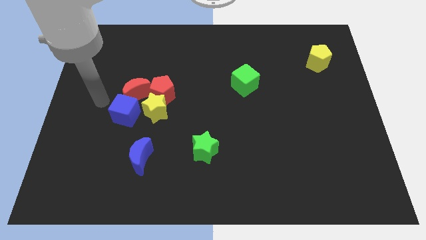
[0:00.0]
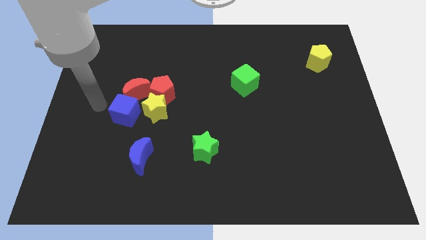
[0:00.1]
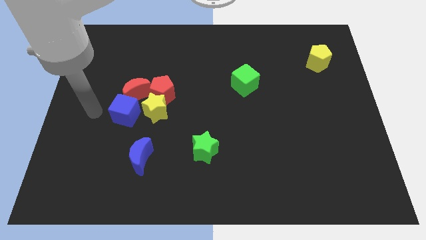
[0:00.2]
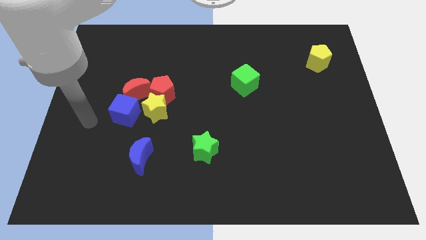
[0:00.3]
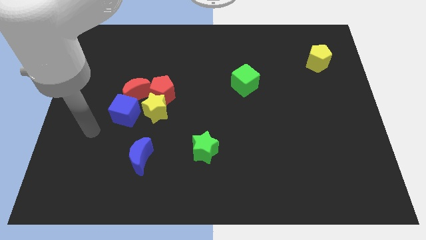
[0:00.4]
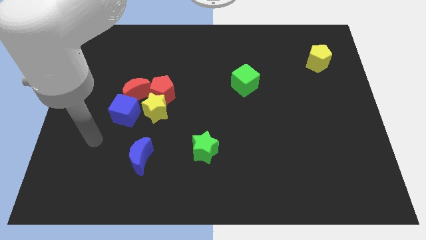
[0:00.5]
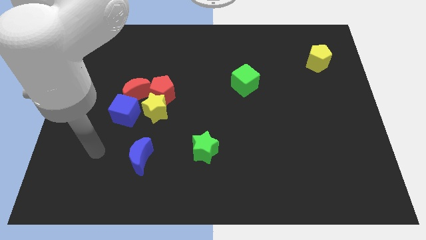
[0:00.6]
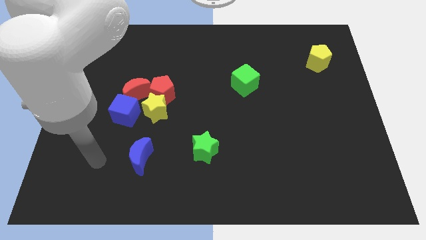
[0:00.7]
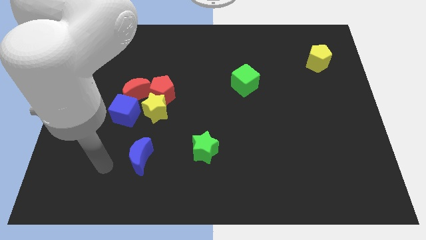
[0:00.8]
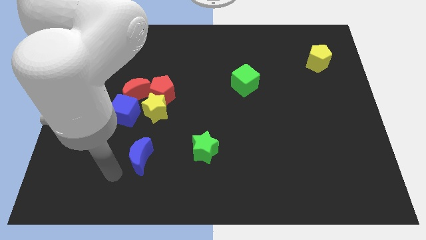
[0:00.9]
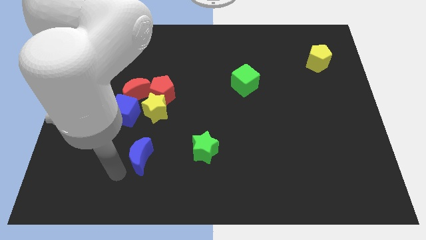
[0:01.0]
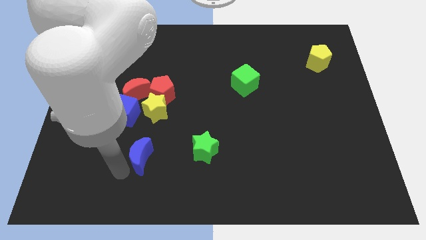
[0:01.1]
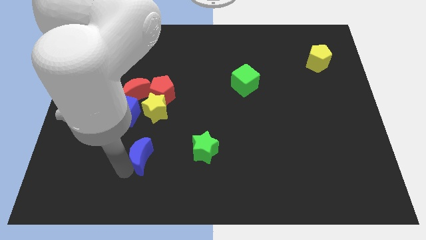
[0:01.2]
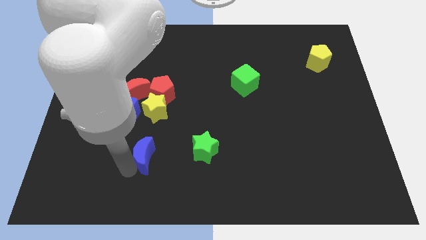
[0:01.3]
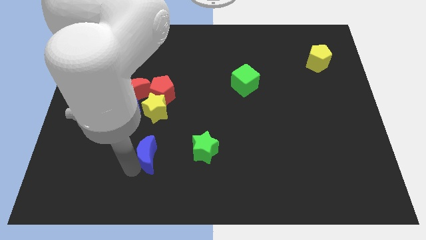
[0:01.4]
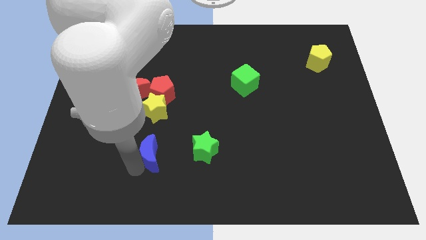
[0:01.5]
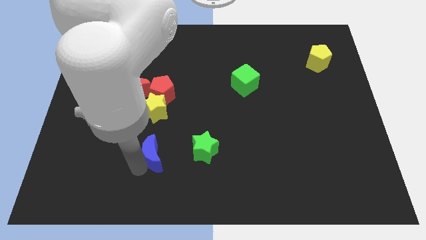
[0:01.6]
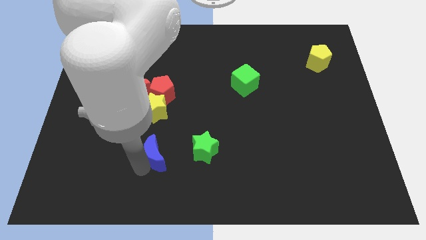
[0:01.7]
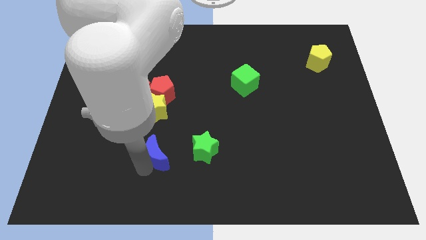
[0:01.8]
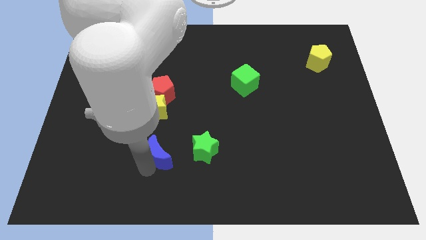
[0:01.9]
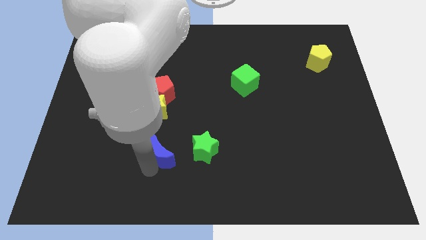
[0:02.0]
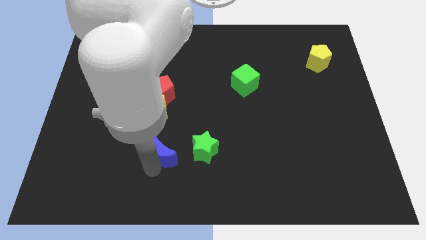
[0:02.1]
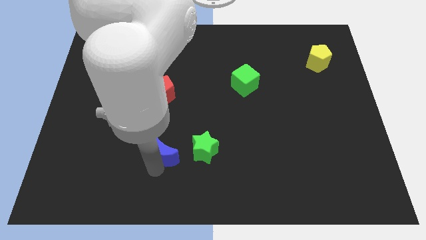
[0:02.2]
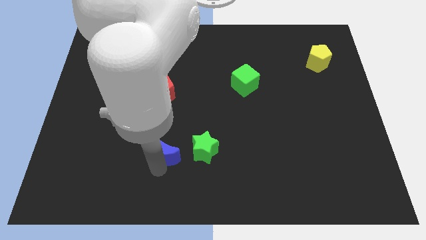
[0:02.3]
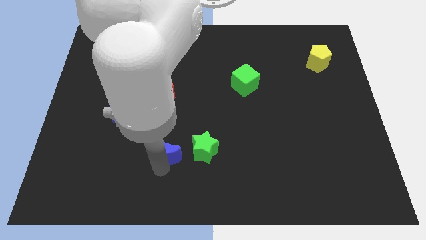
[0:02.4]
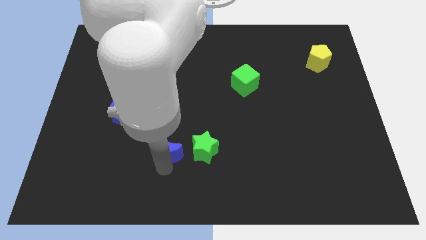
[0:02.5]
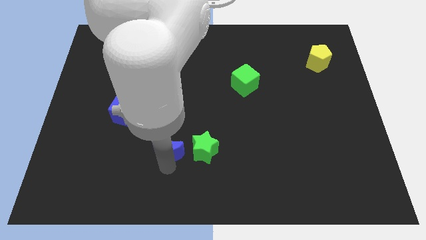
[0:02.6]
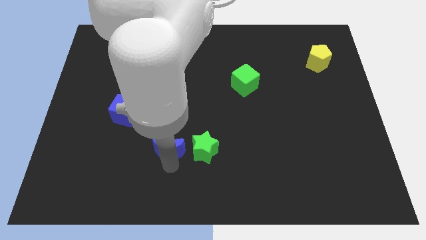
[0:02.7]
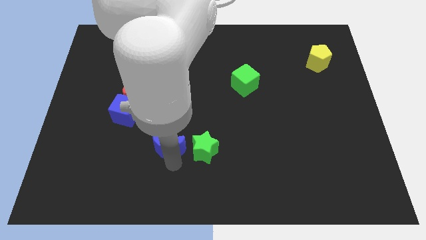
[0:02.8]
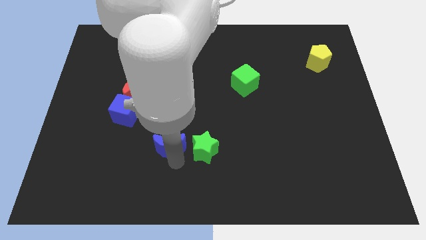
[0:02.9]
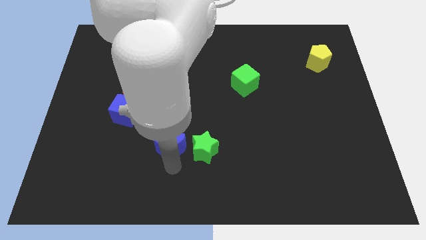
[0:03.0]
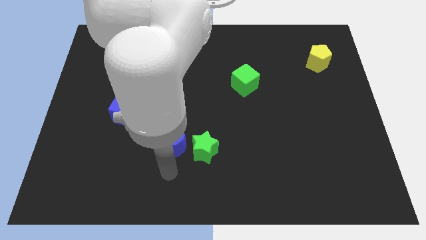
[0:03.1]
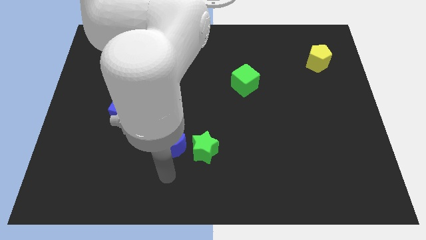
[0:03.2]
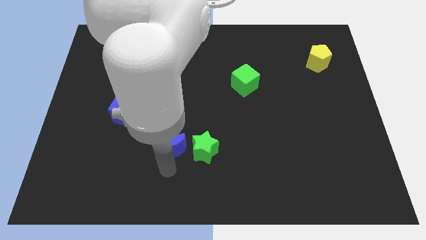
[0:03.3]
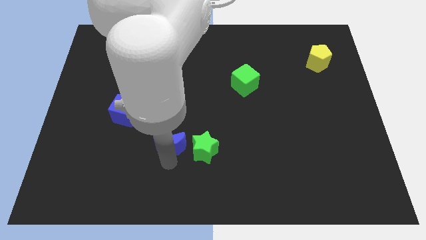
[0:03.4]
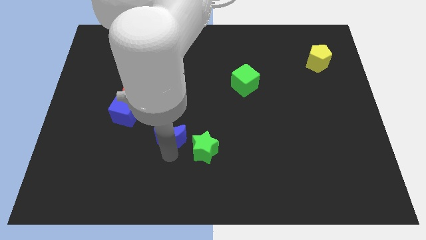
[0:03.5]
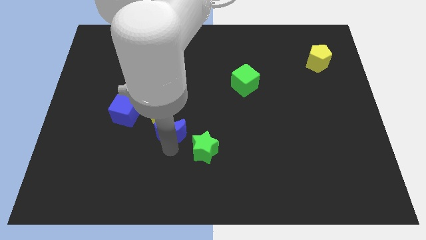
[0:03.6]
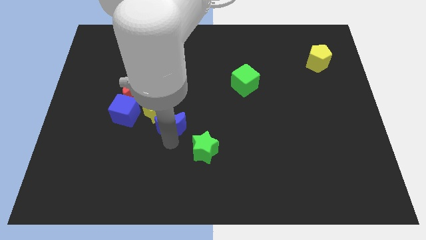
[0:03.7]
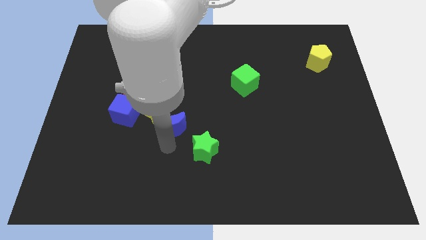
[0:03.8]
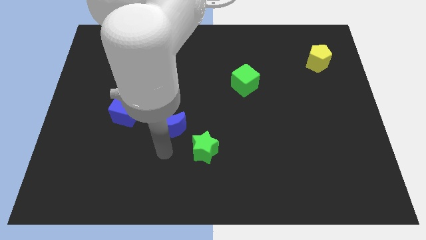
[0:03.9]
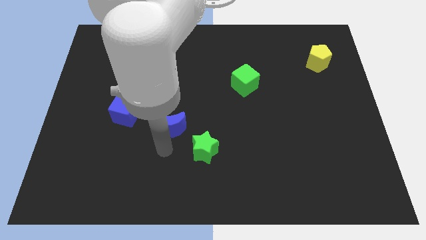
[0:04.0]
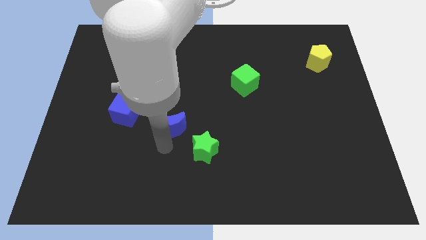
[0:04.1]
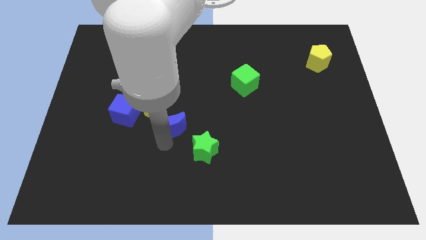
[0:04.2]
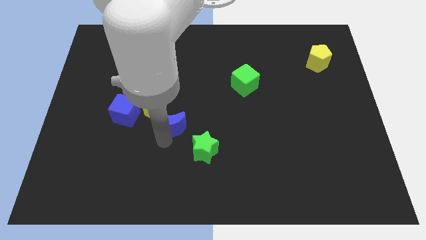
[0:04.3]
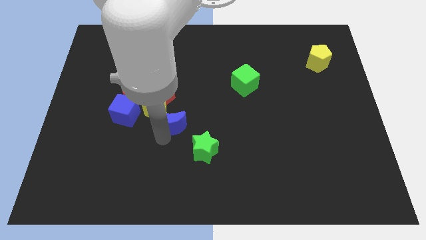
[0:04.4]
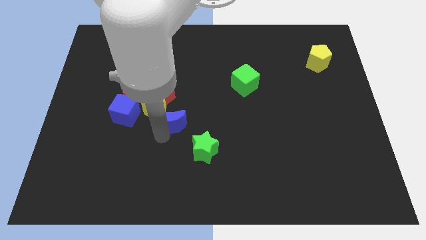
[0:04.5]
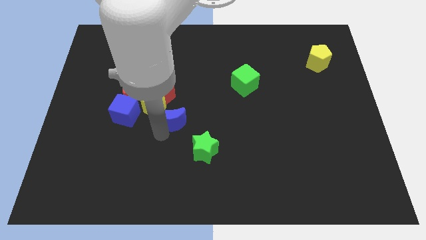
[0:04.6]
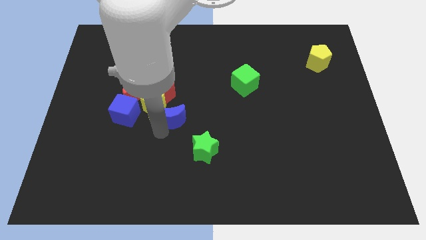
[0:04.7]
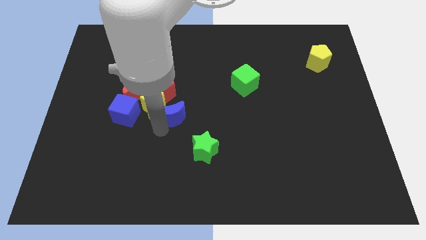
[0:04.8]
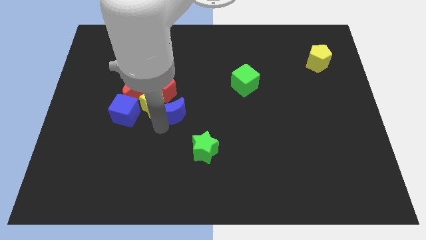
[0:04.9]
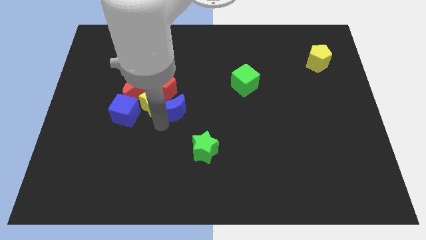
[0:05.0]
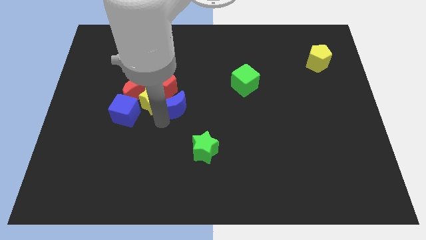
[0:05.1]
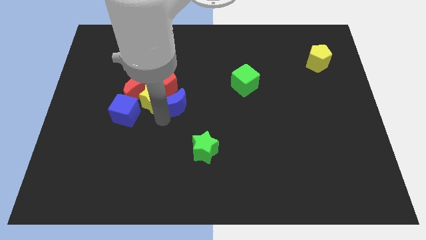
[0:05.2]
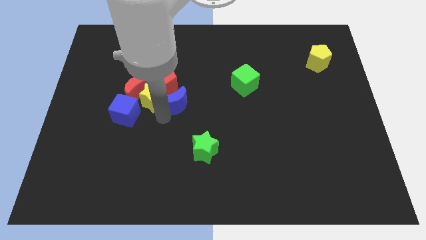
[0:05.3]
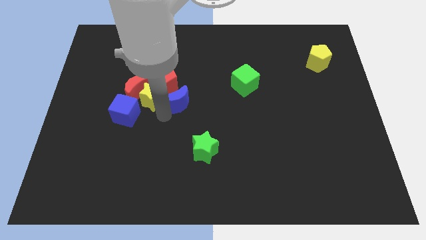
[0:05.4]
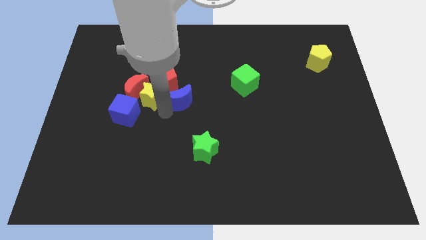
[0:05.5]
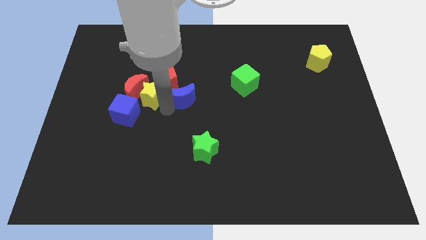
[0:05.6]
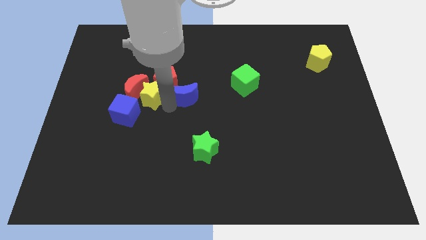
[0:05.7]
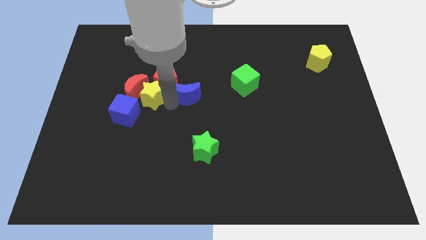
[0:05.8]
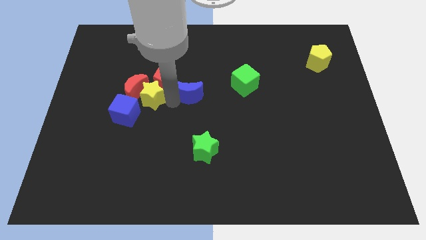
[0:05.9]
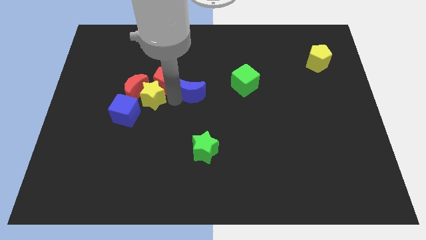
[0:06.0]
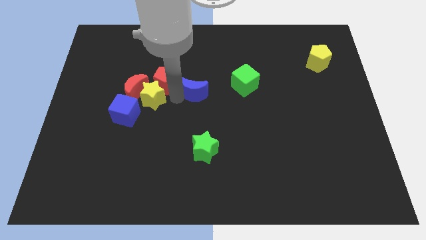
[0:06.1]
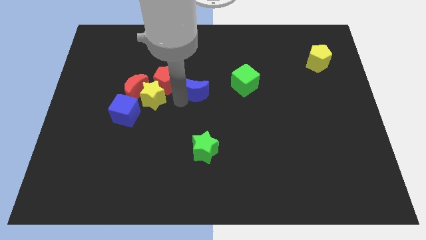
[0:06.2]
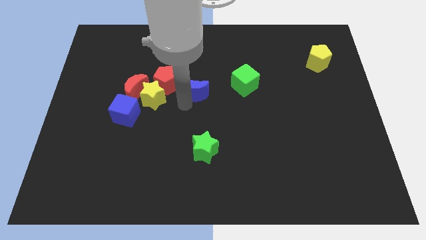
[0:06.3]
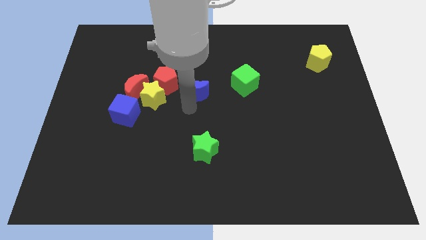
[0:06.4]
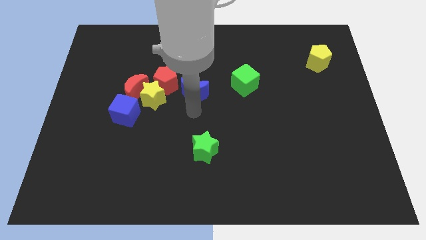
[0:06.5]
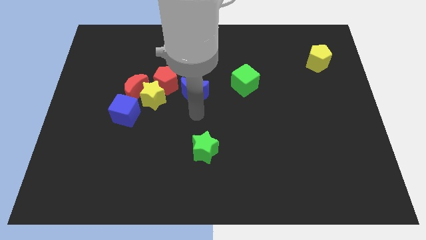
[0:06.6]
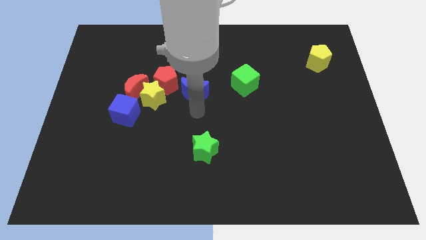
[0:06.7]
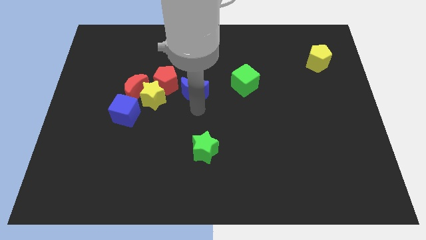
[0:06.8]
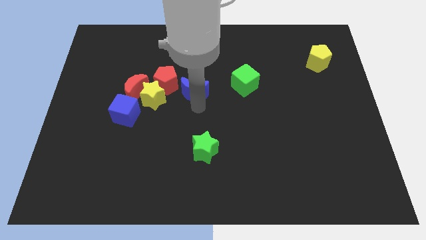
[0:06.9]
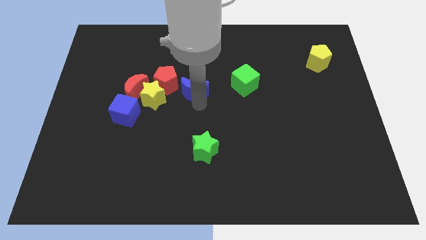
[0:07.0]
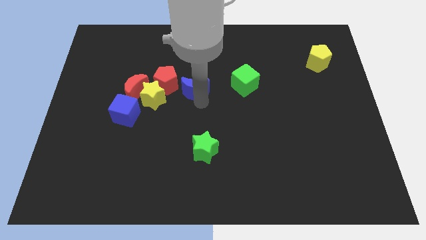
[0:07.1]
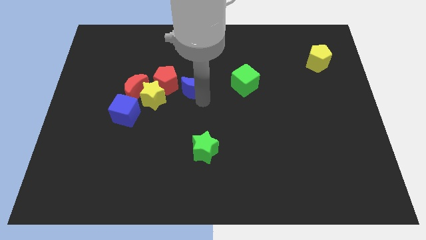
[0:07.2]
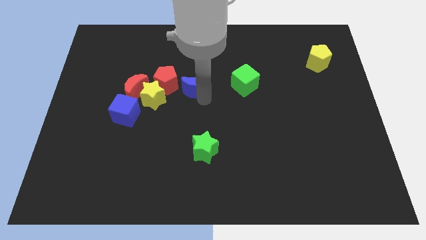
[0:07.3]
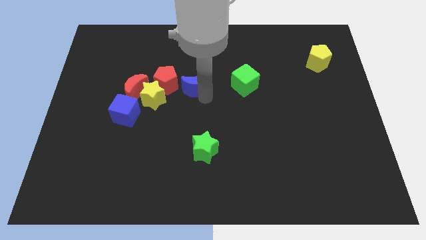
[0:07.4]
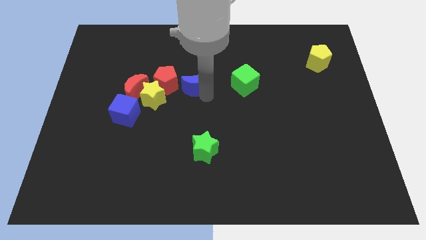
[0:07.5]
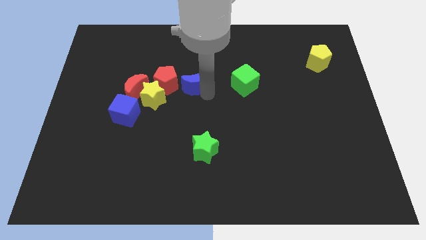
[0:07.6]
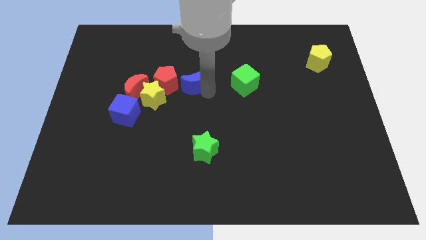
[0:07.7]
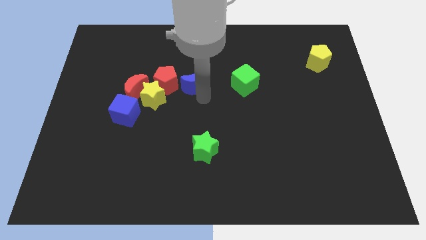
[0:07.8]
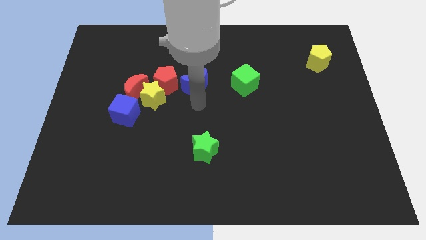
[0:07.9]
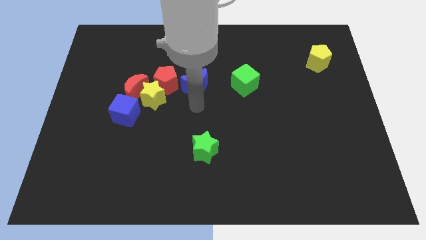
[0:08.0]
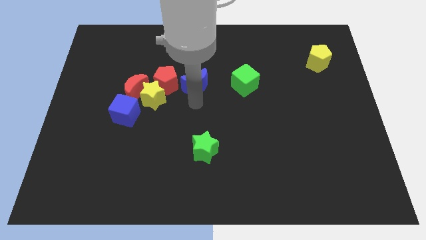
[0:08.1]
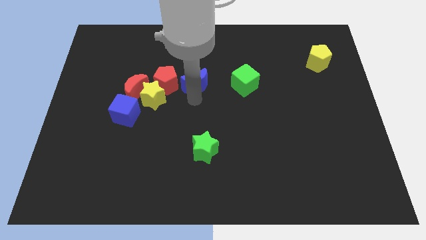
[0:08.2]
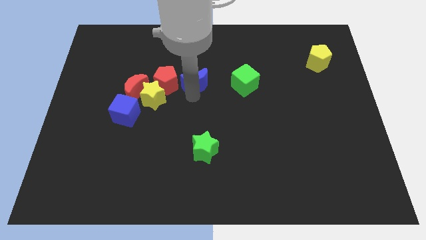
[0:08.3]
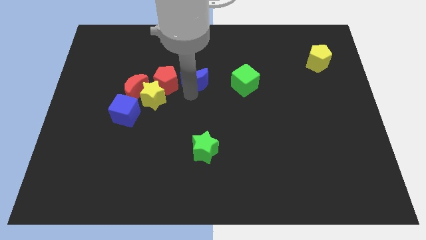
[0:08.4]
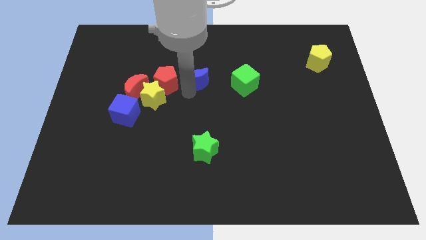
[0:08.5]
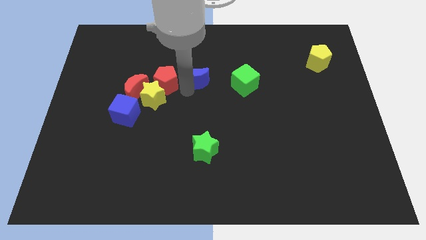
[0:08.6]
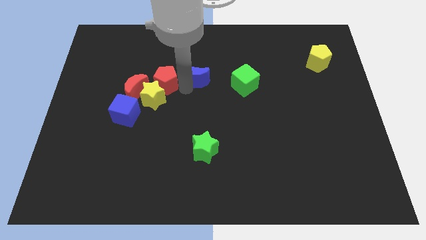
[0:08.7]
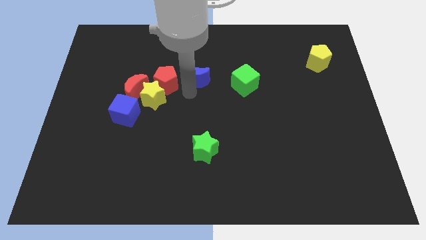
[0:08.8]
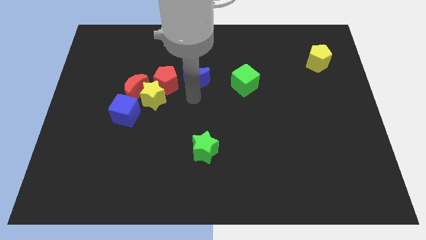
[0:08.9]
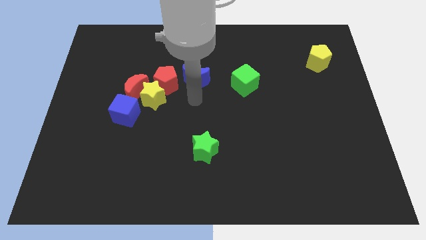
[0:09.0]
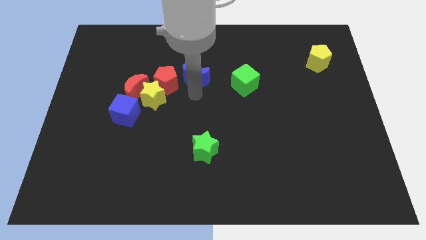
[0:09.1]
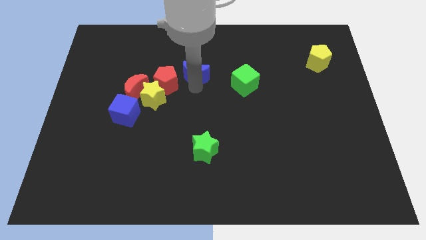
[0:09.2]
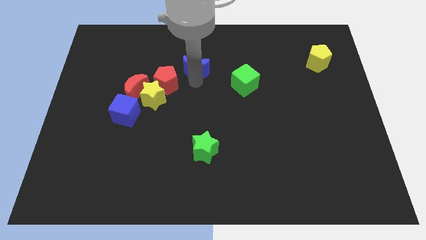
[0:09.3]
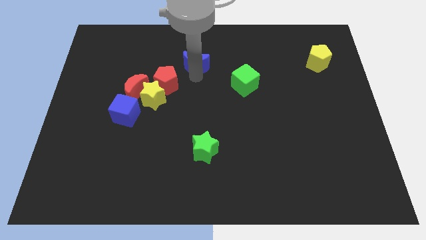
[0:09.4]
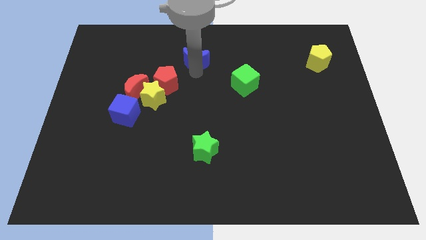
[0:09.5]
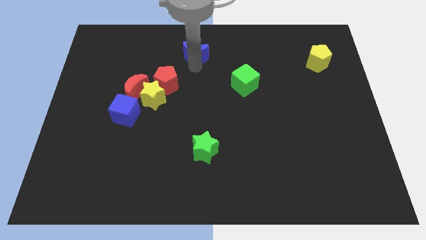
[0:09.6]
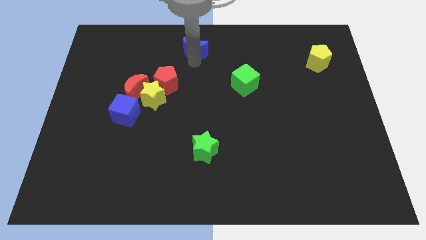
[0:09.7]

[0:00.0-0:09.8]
put the blue moon to the top
